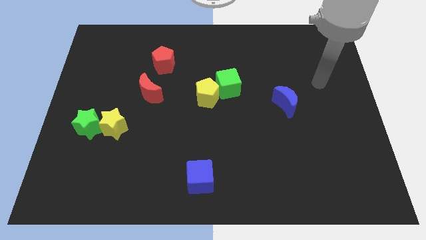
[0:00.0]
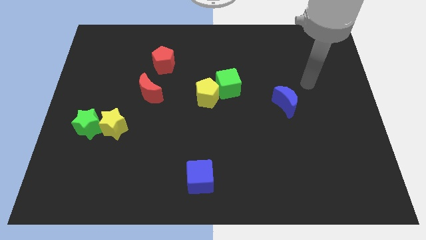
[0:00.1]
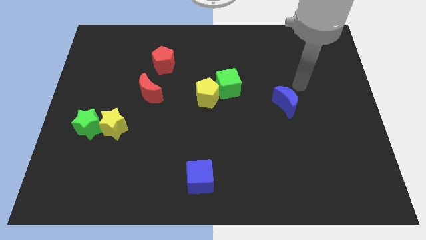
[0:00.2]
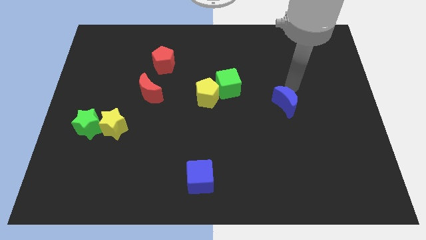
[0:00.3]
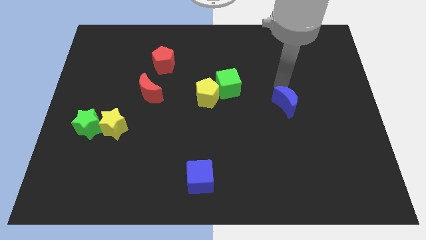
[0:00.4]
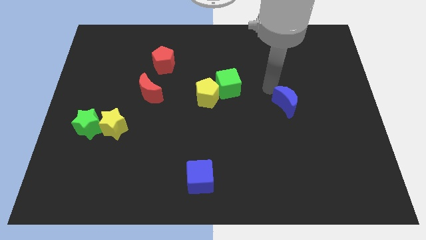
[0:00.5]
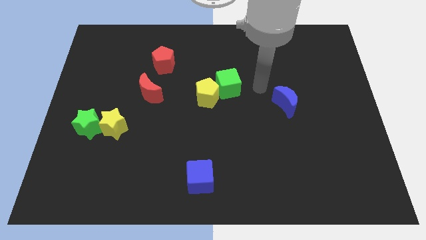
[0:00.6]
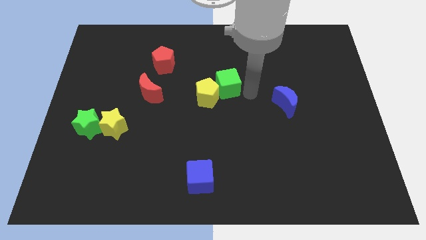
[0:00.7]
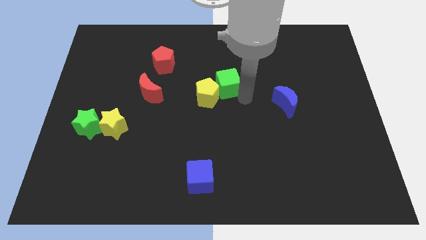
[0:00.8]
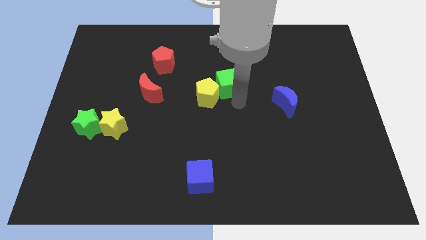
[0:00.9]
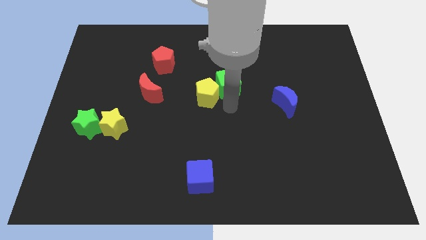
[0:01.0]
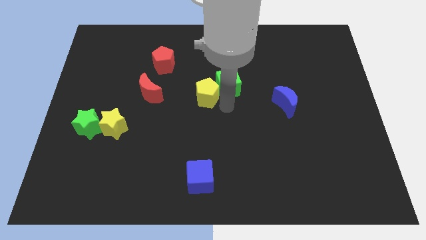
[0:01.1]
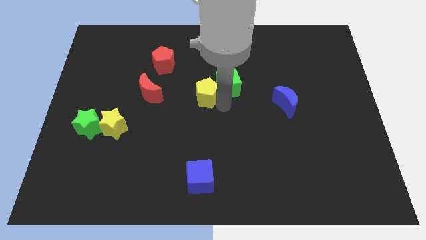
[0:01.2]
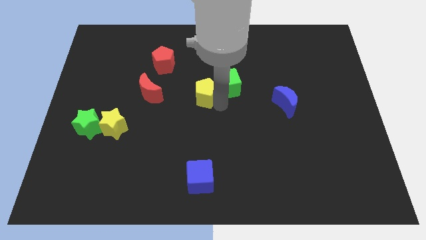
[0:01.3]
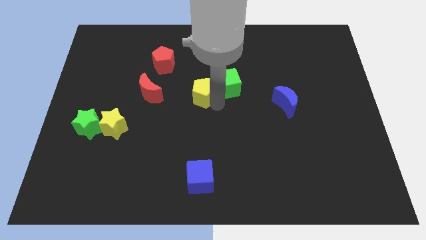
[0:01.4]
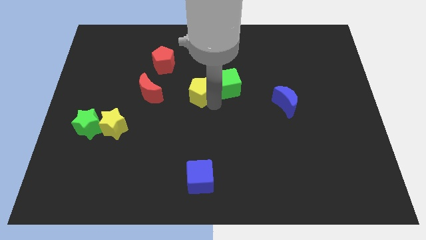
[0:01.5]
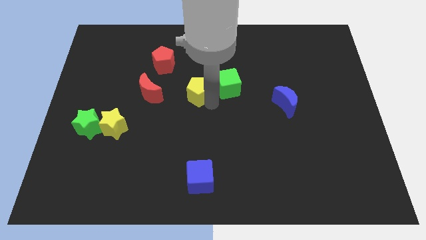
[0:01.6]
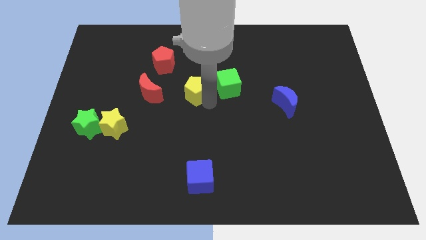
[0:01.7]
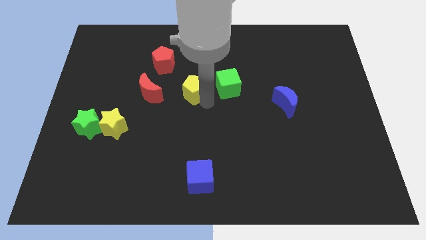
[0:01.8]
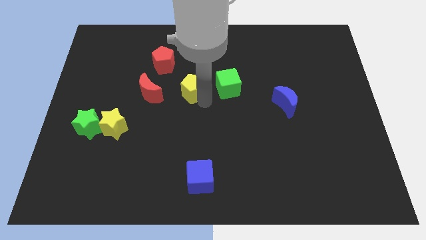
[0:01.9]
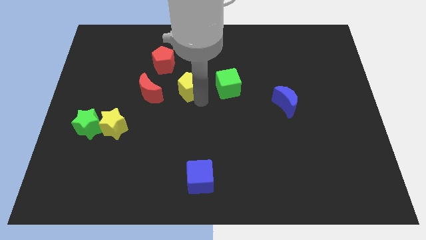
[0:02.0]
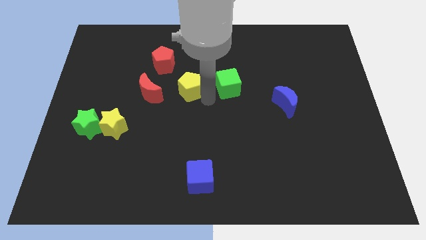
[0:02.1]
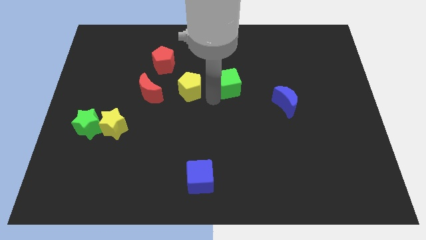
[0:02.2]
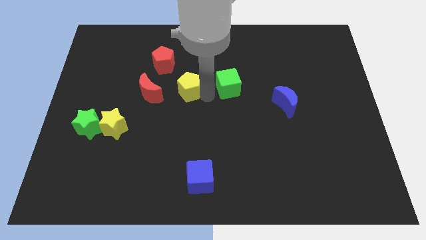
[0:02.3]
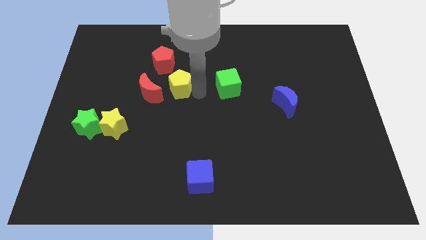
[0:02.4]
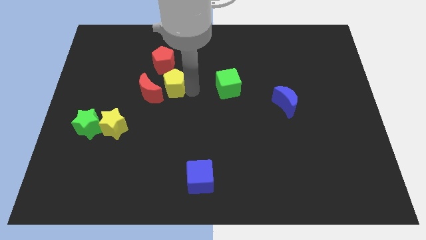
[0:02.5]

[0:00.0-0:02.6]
slightly move the yellow pentagon upwards and to the left

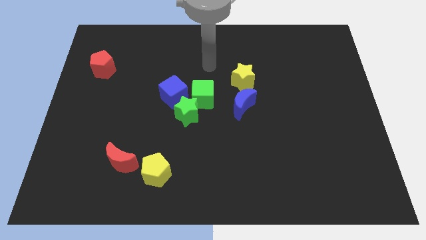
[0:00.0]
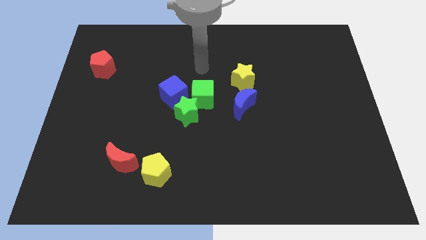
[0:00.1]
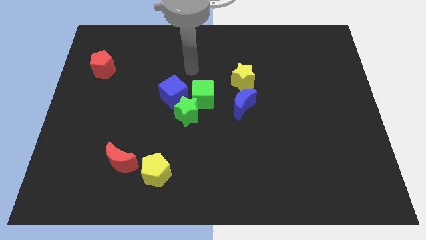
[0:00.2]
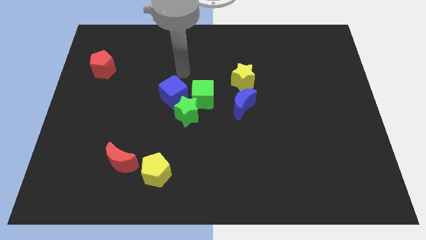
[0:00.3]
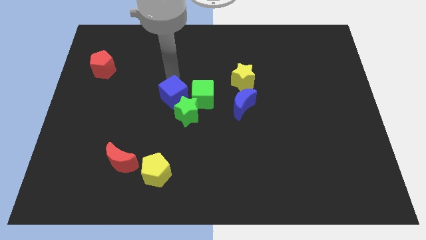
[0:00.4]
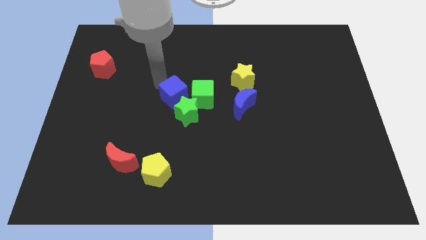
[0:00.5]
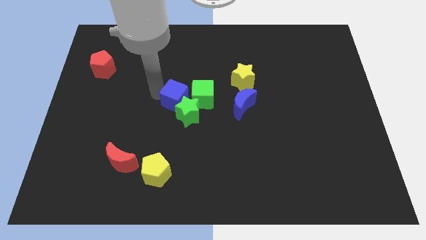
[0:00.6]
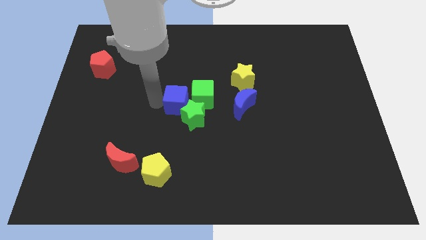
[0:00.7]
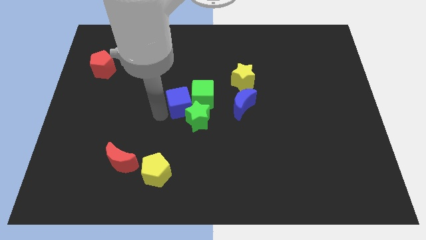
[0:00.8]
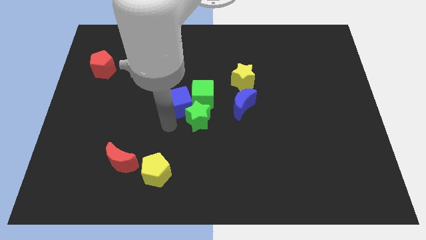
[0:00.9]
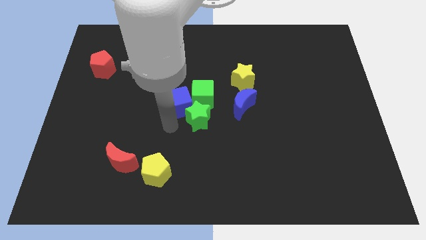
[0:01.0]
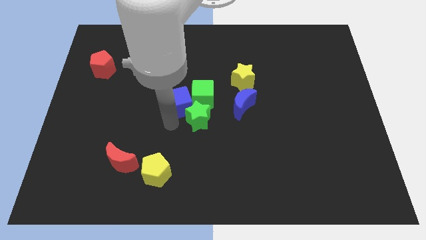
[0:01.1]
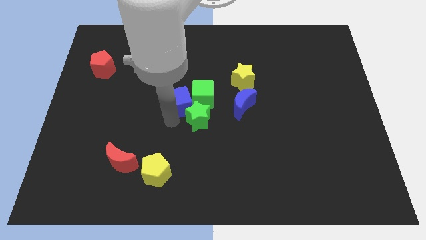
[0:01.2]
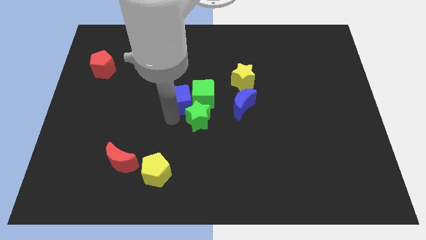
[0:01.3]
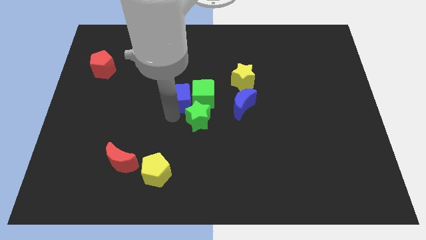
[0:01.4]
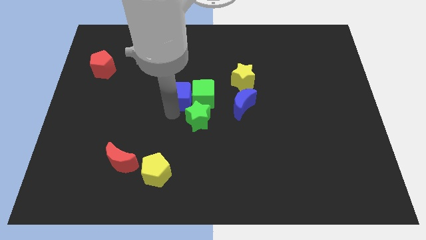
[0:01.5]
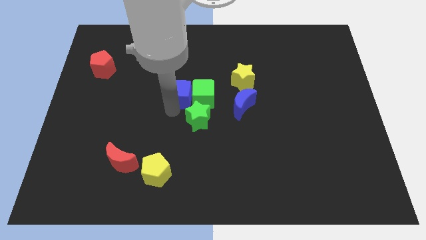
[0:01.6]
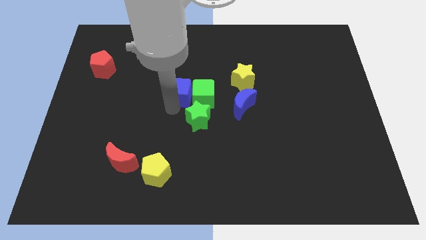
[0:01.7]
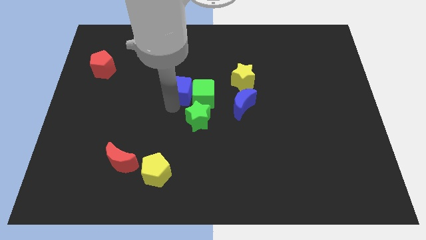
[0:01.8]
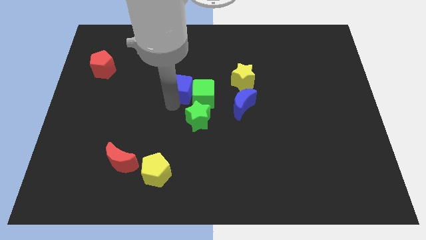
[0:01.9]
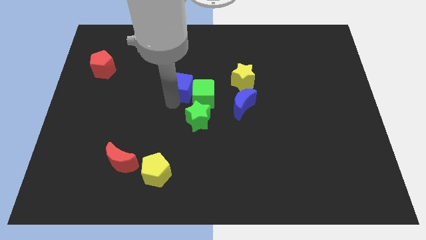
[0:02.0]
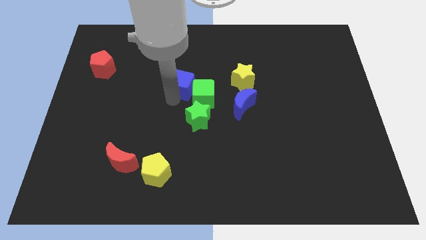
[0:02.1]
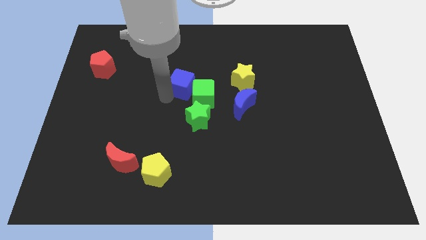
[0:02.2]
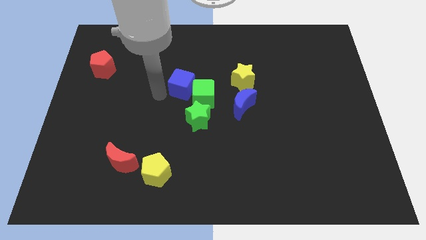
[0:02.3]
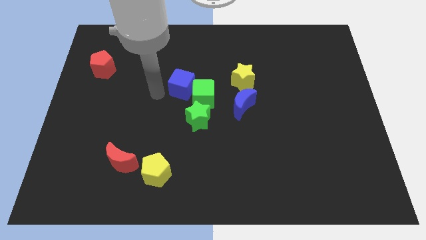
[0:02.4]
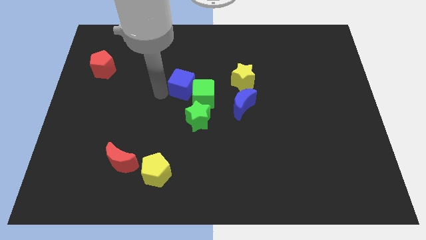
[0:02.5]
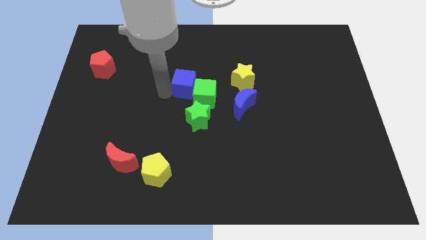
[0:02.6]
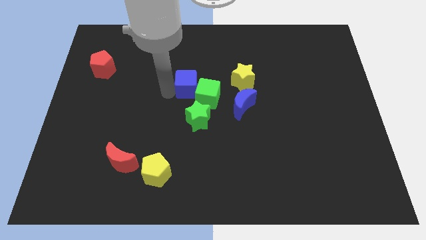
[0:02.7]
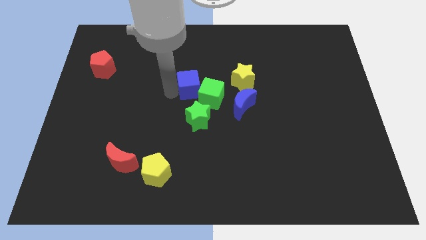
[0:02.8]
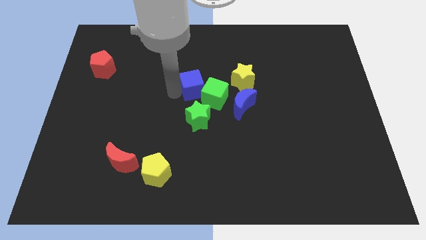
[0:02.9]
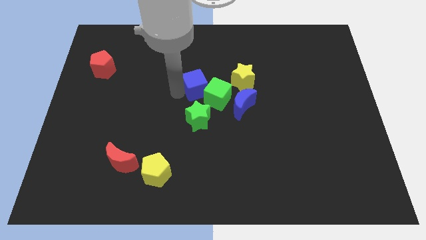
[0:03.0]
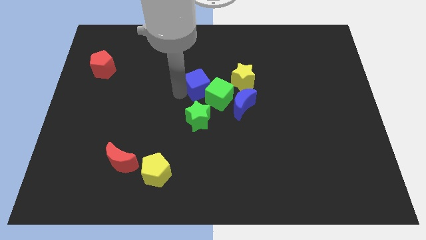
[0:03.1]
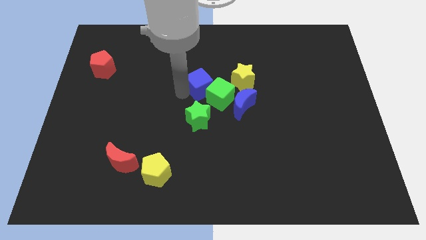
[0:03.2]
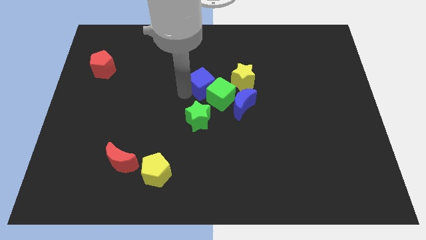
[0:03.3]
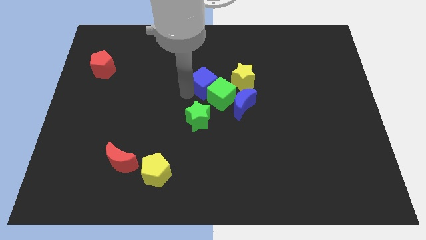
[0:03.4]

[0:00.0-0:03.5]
slightly move the blue cube to the right

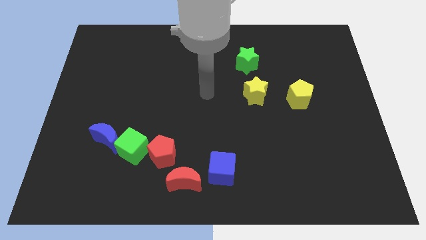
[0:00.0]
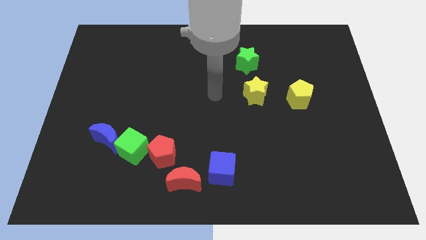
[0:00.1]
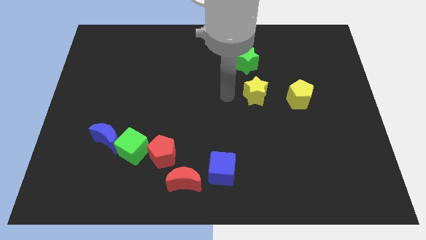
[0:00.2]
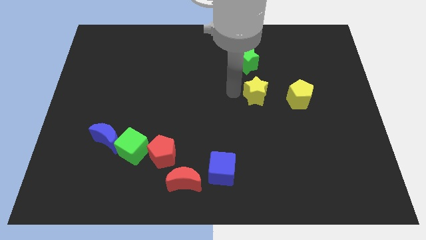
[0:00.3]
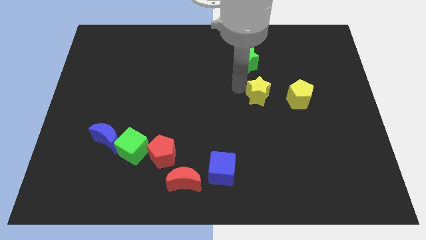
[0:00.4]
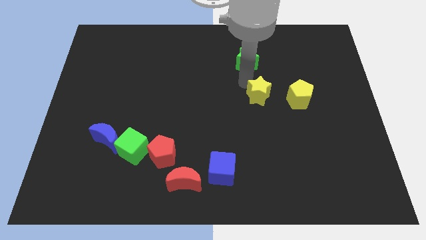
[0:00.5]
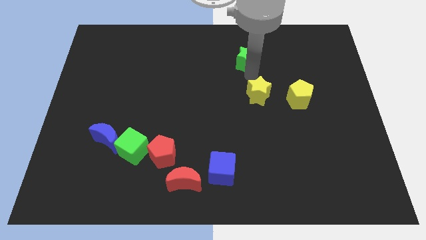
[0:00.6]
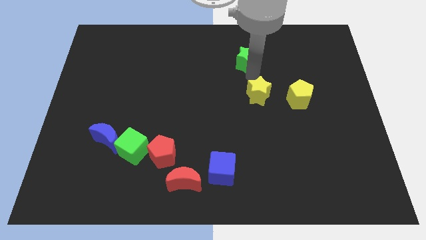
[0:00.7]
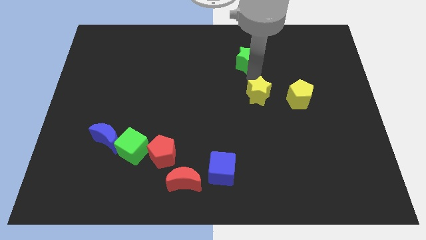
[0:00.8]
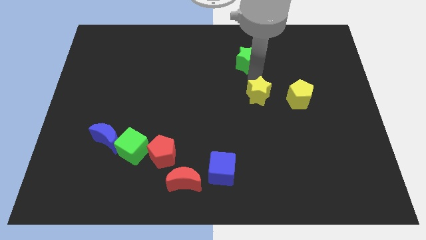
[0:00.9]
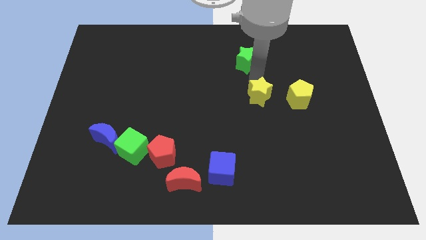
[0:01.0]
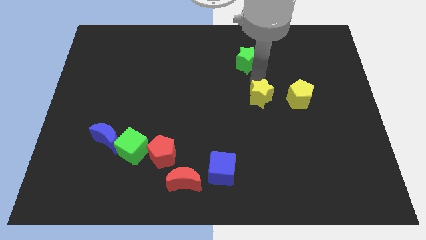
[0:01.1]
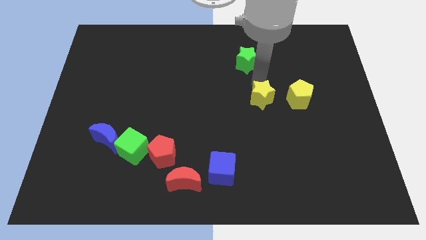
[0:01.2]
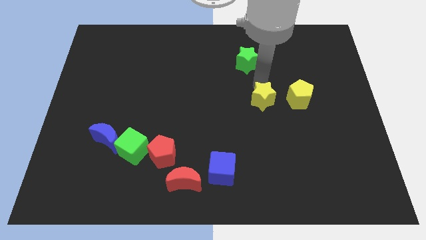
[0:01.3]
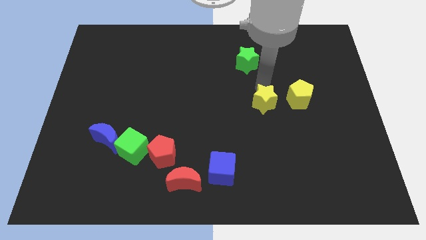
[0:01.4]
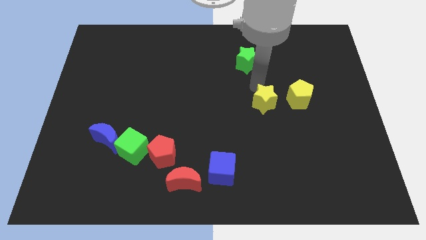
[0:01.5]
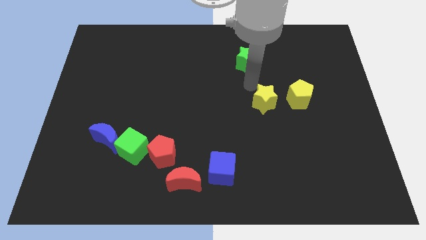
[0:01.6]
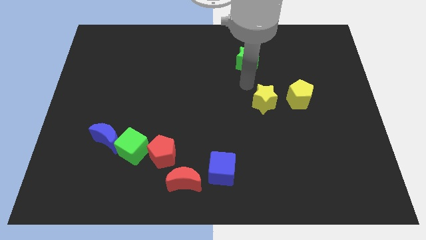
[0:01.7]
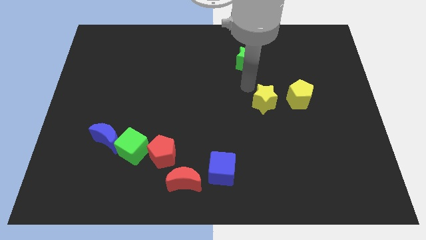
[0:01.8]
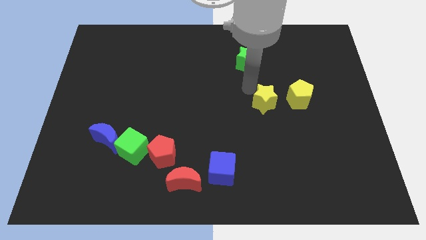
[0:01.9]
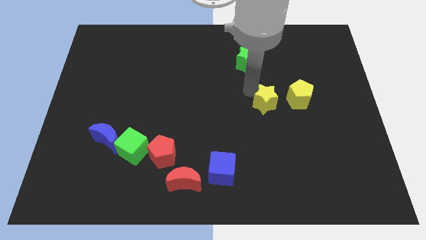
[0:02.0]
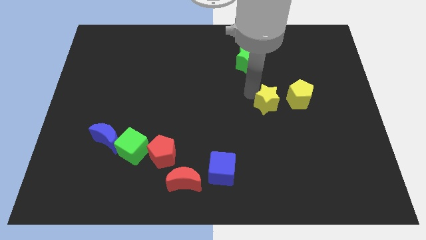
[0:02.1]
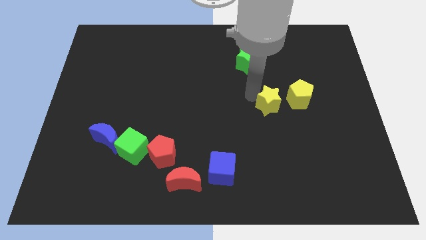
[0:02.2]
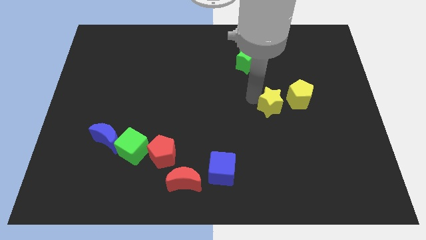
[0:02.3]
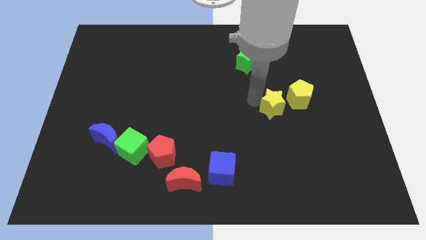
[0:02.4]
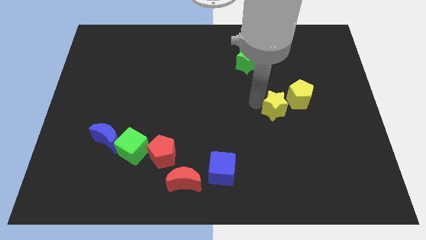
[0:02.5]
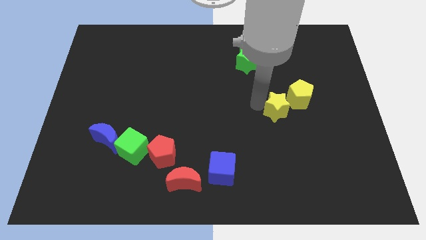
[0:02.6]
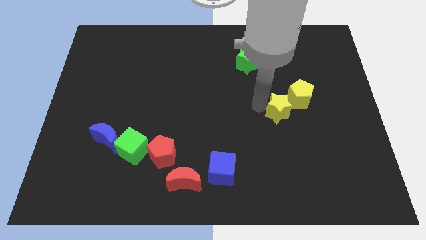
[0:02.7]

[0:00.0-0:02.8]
slide the yellow star downwards and to the right a little bit
